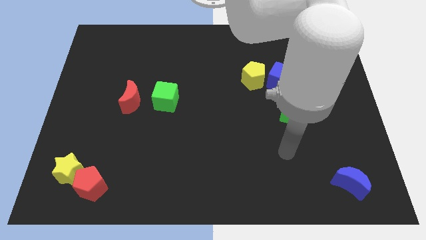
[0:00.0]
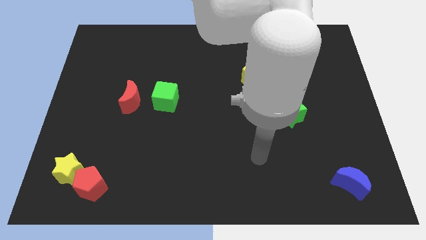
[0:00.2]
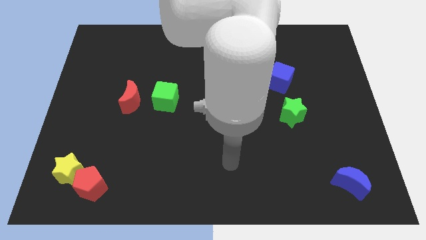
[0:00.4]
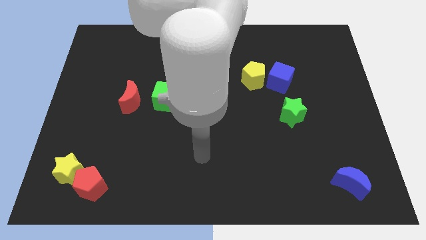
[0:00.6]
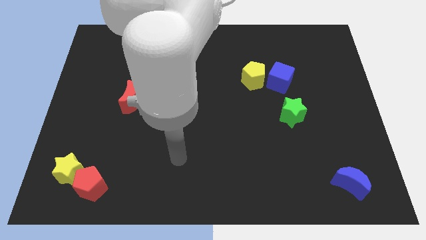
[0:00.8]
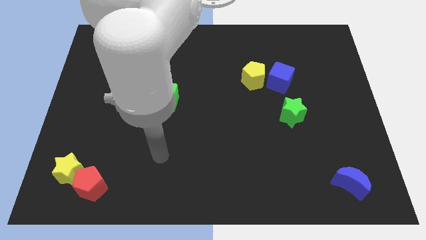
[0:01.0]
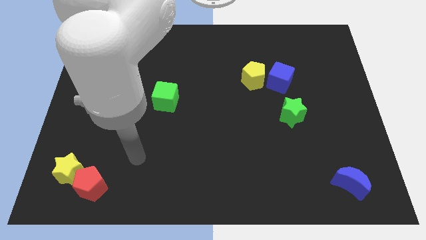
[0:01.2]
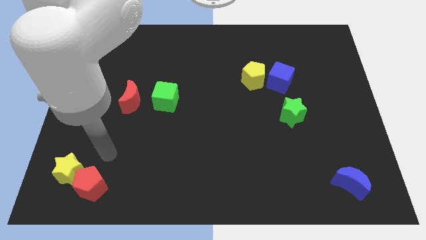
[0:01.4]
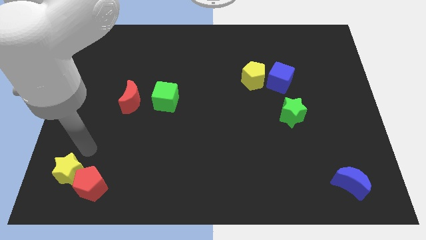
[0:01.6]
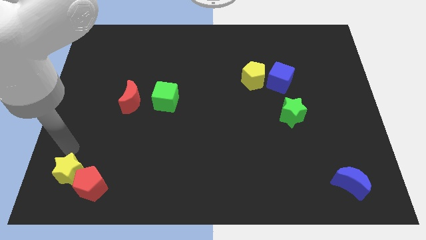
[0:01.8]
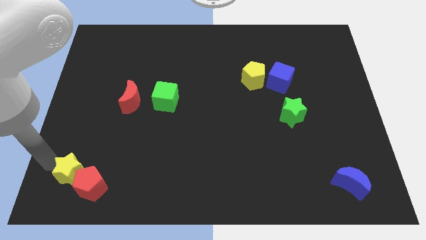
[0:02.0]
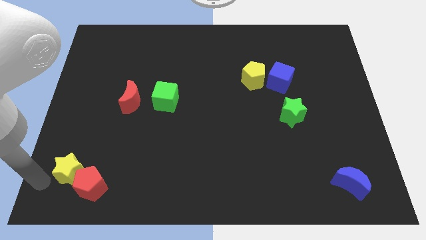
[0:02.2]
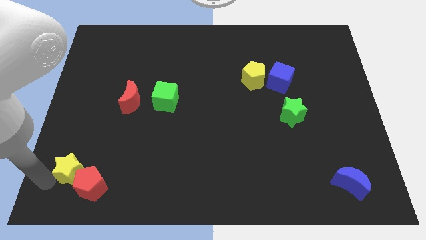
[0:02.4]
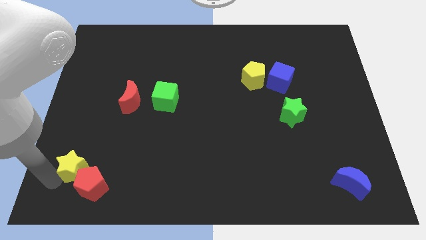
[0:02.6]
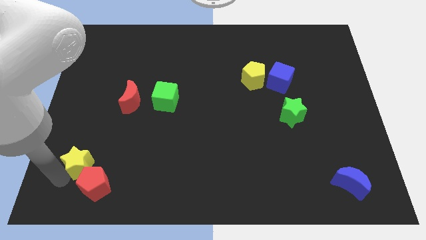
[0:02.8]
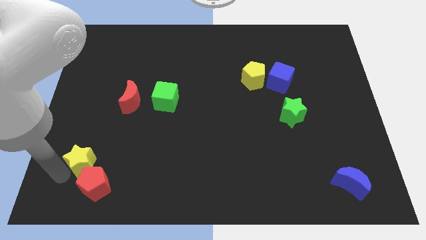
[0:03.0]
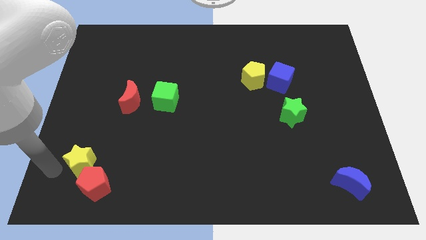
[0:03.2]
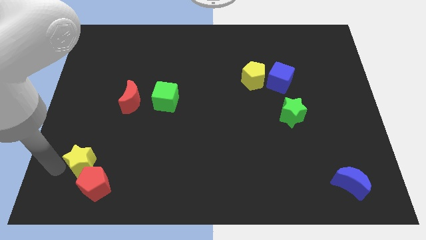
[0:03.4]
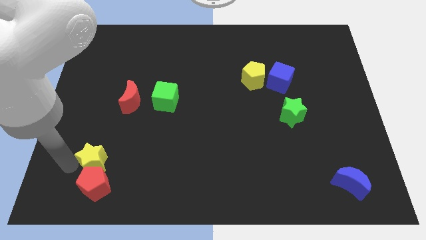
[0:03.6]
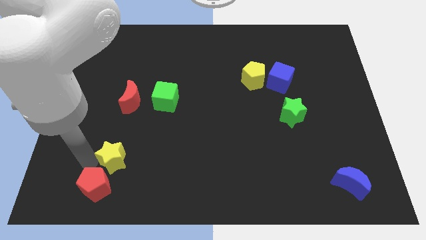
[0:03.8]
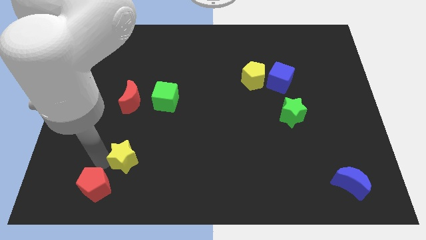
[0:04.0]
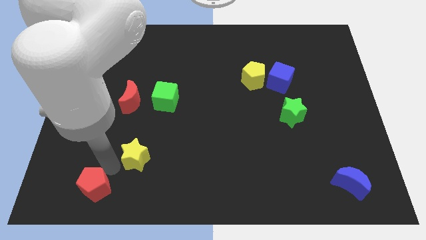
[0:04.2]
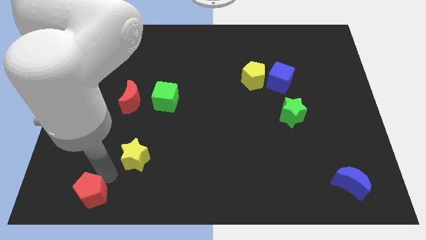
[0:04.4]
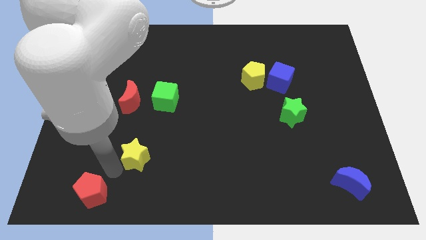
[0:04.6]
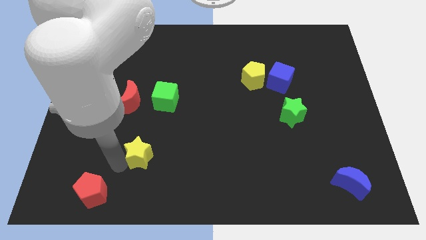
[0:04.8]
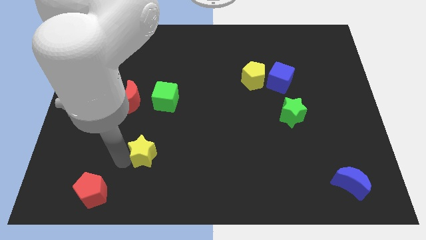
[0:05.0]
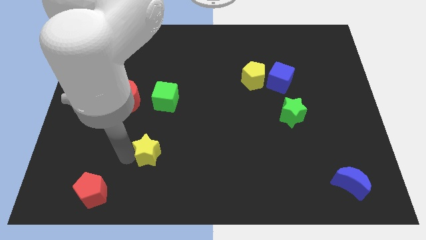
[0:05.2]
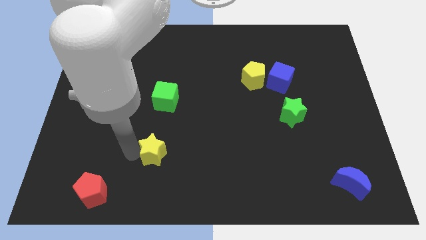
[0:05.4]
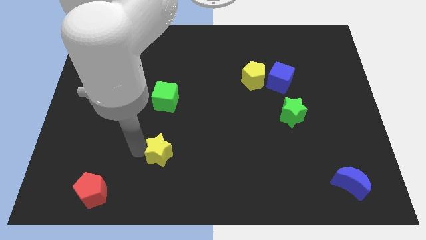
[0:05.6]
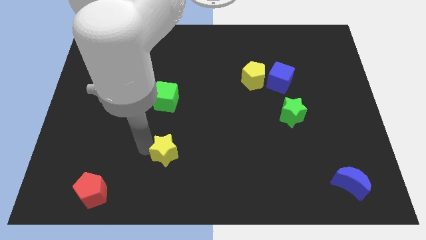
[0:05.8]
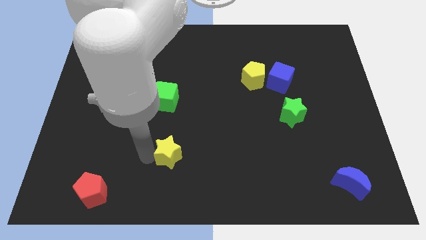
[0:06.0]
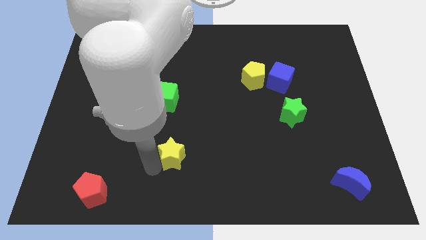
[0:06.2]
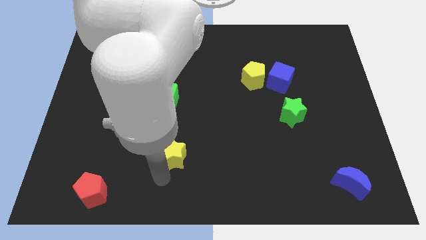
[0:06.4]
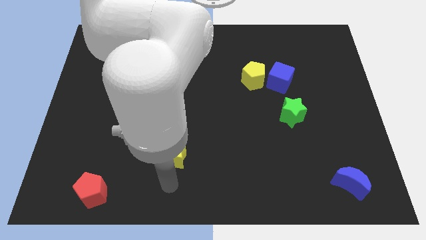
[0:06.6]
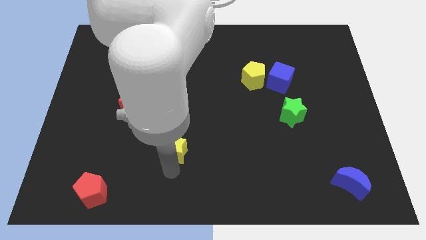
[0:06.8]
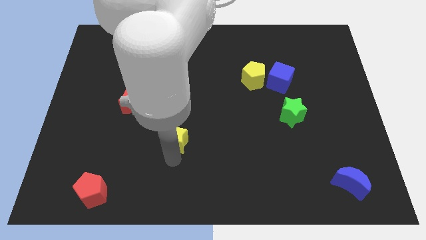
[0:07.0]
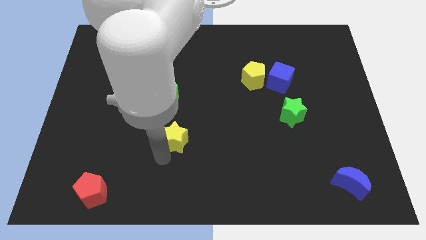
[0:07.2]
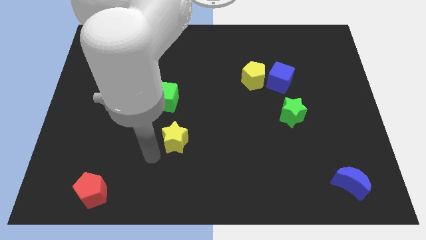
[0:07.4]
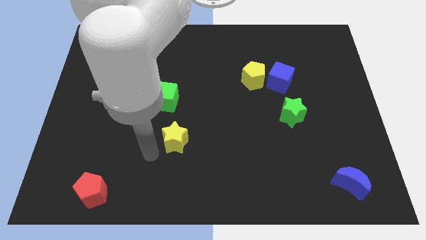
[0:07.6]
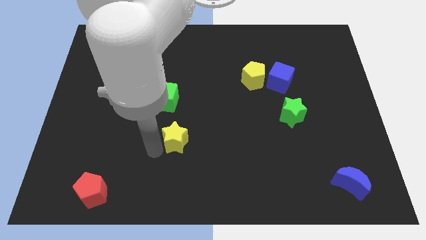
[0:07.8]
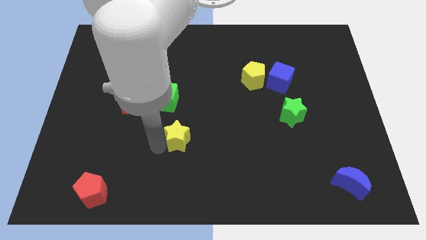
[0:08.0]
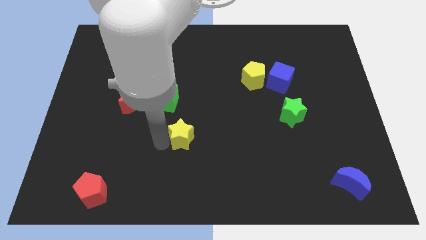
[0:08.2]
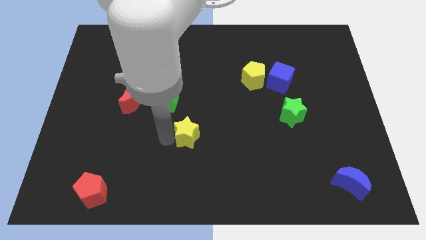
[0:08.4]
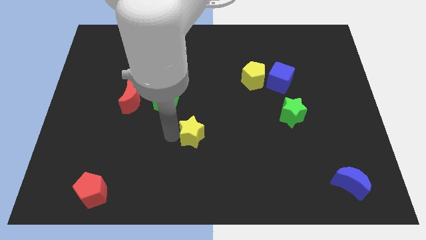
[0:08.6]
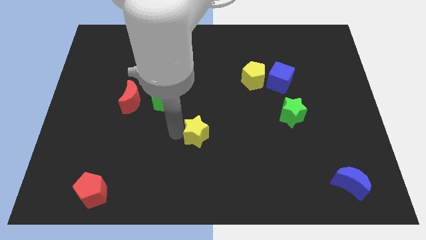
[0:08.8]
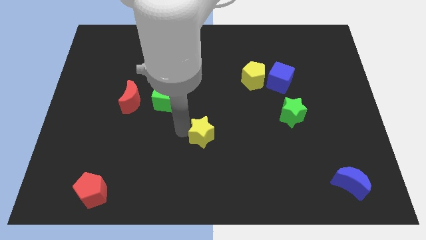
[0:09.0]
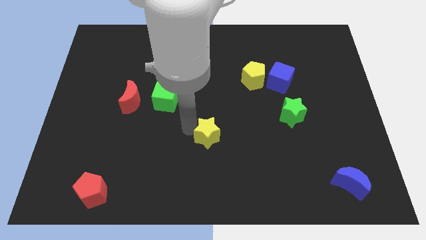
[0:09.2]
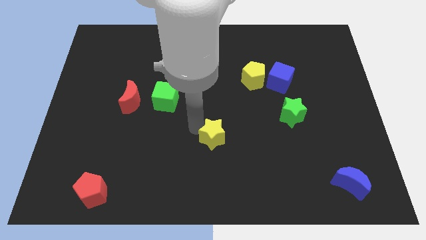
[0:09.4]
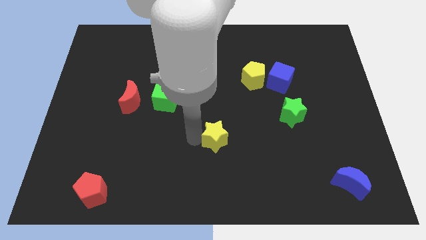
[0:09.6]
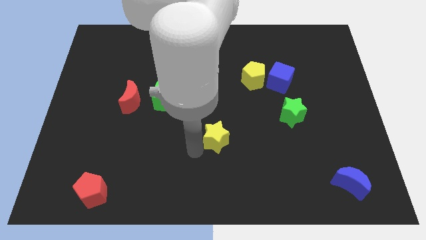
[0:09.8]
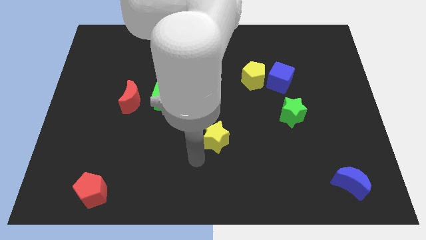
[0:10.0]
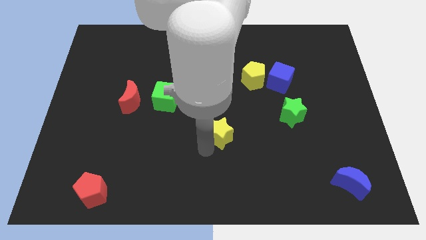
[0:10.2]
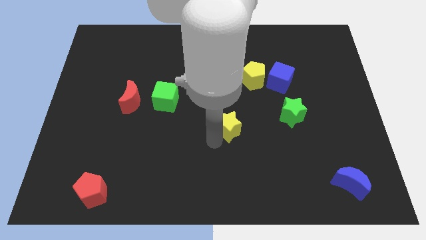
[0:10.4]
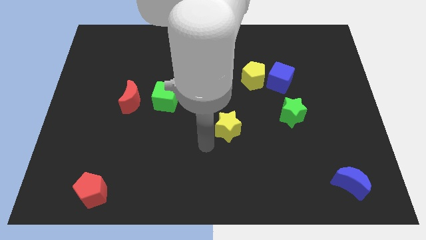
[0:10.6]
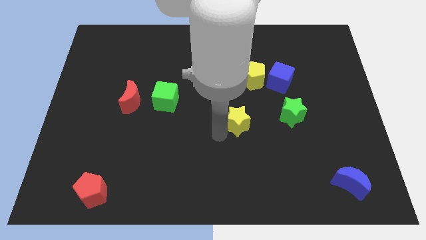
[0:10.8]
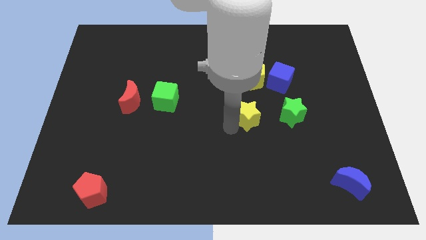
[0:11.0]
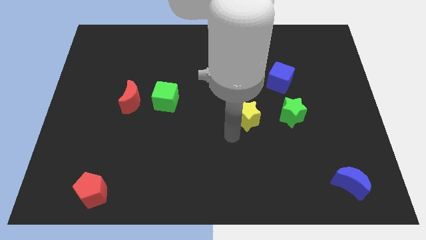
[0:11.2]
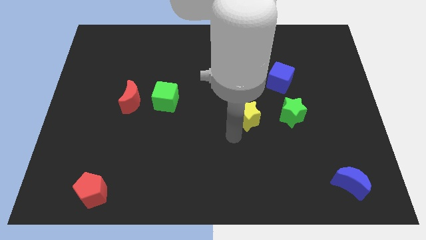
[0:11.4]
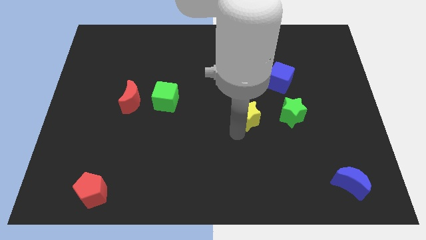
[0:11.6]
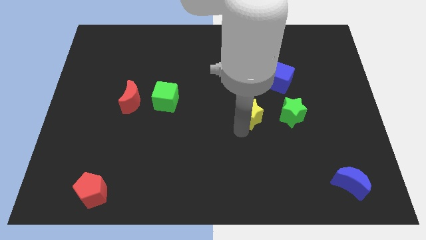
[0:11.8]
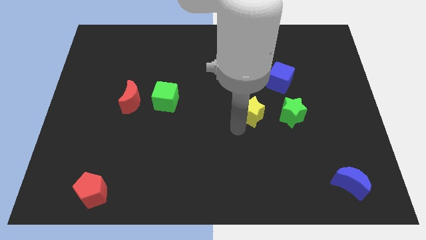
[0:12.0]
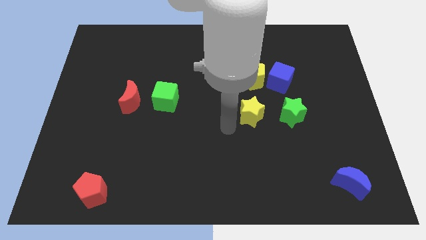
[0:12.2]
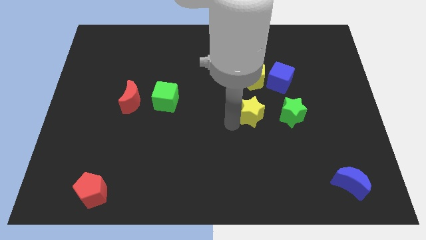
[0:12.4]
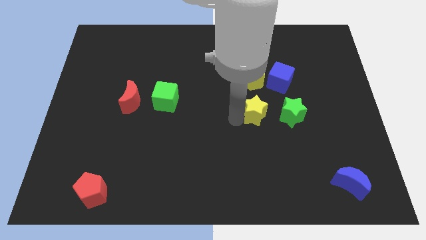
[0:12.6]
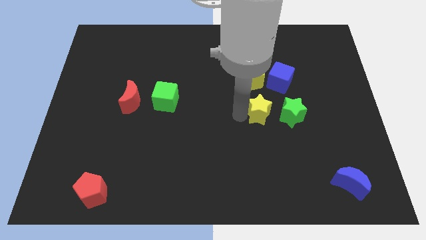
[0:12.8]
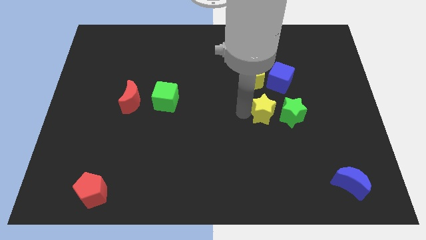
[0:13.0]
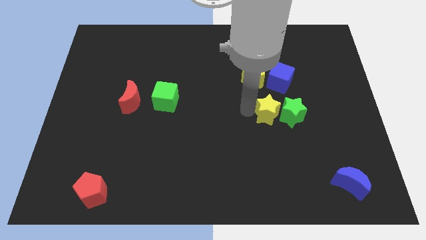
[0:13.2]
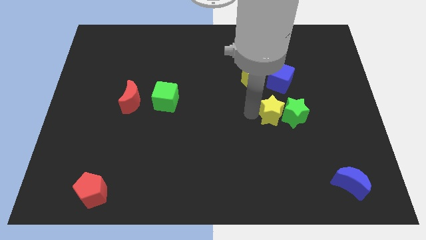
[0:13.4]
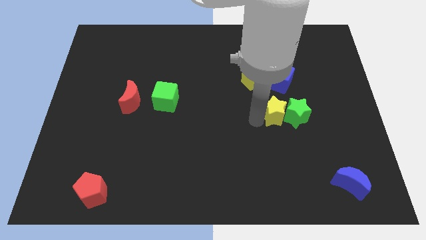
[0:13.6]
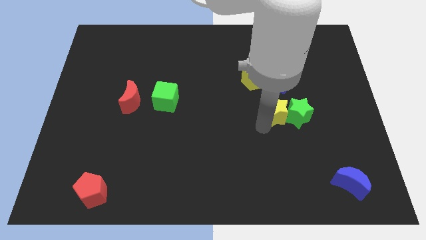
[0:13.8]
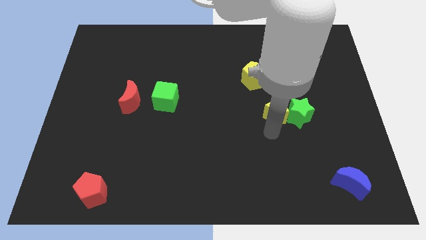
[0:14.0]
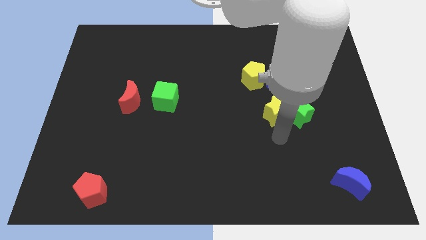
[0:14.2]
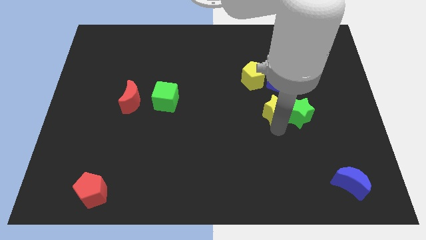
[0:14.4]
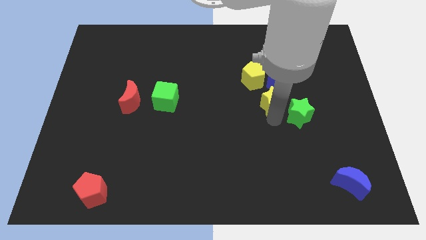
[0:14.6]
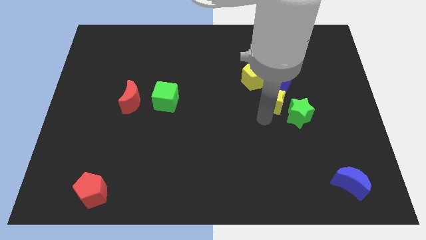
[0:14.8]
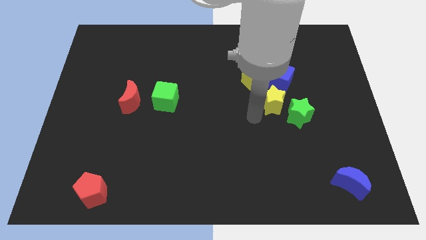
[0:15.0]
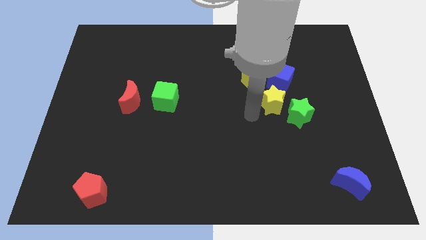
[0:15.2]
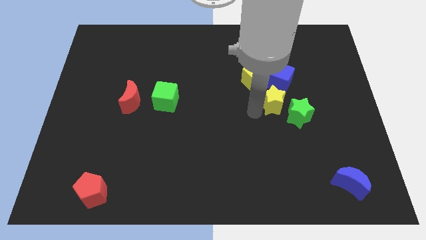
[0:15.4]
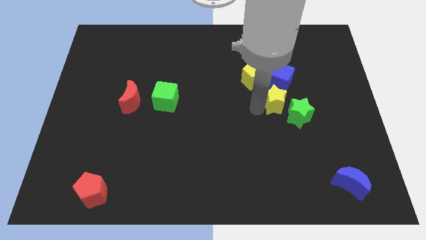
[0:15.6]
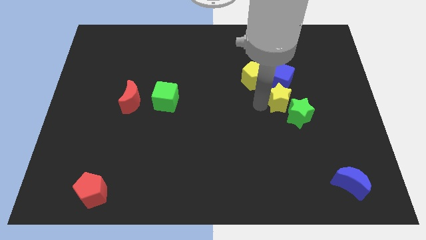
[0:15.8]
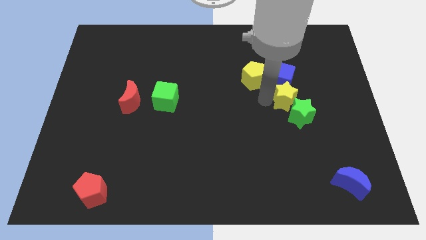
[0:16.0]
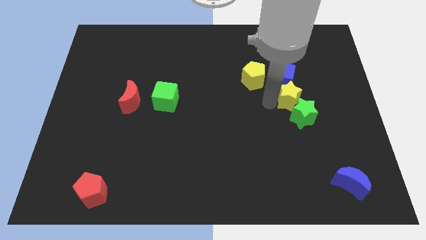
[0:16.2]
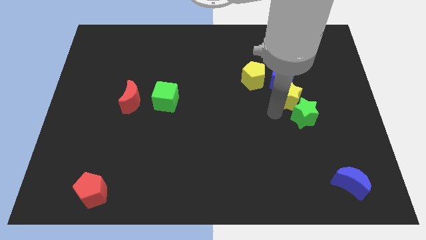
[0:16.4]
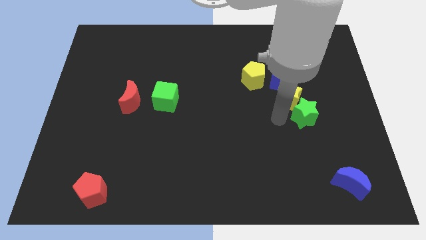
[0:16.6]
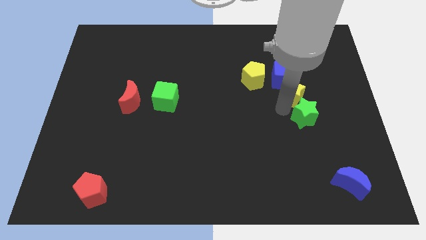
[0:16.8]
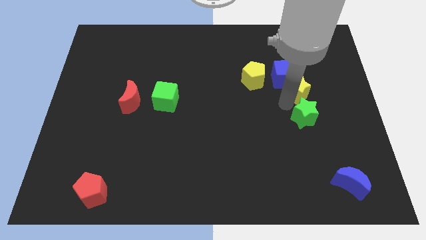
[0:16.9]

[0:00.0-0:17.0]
move the yellow star right of the yellow pentagon
